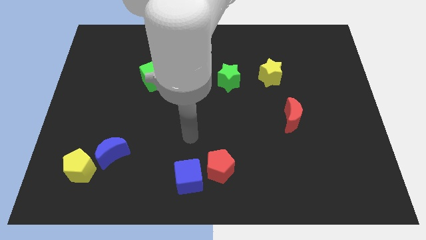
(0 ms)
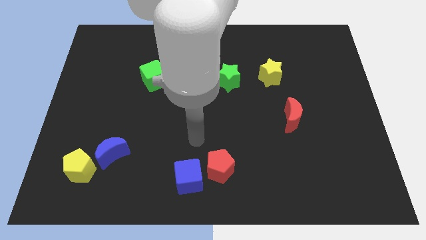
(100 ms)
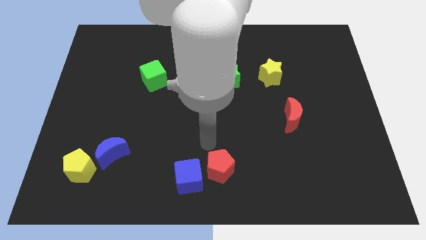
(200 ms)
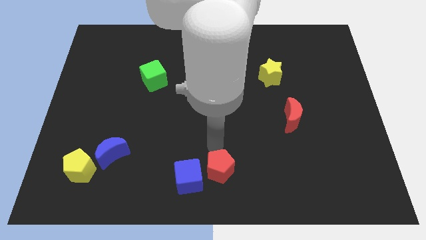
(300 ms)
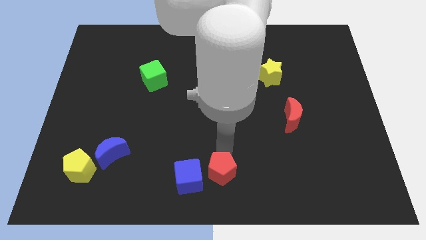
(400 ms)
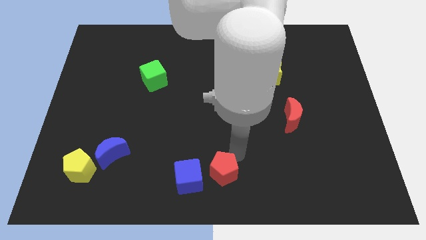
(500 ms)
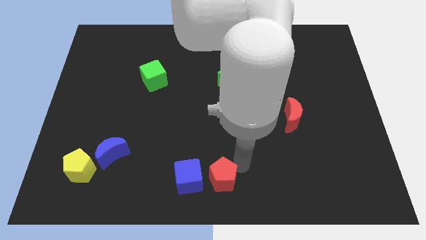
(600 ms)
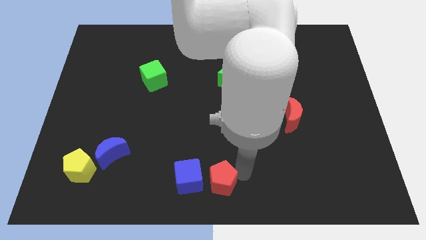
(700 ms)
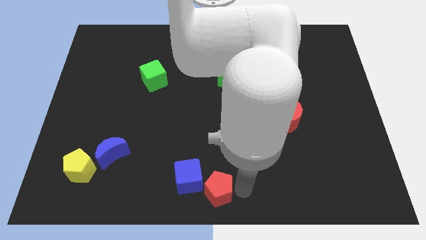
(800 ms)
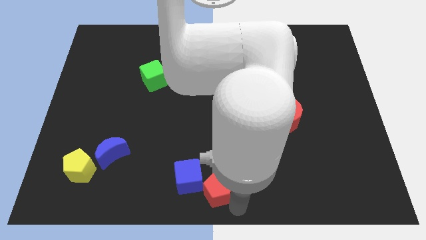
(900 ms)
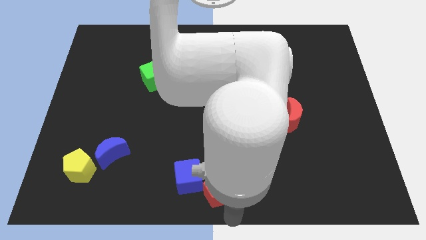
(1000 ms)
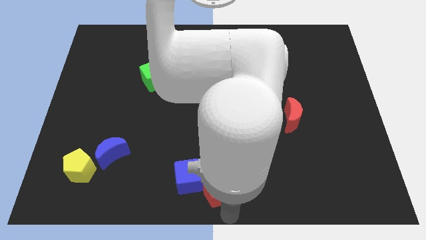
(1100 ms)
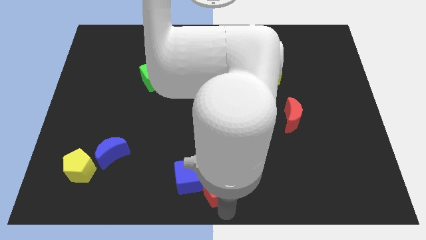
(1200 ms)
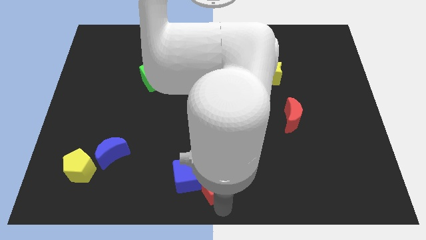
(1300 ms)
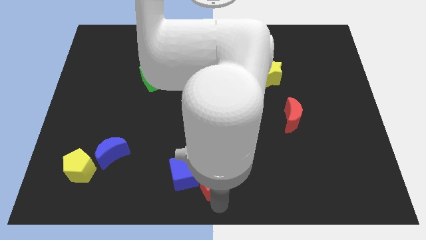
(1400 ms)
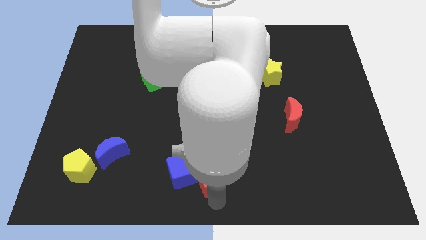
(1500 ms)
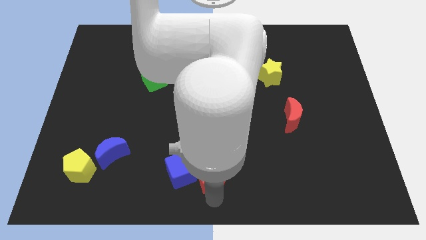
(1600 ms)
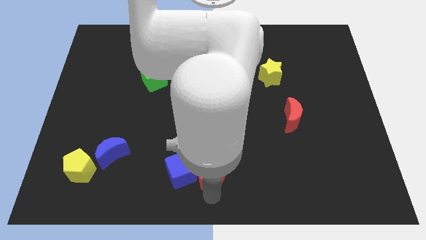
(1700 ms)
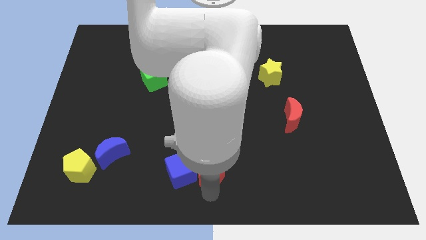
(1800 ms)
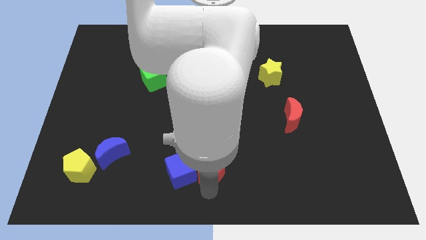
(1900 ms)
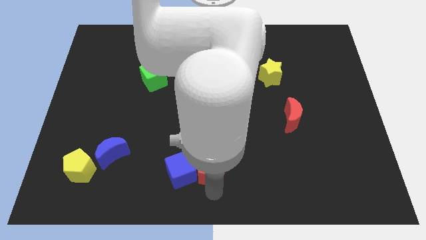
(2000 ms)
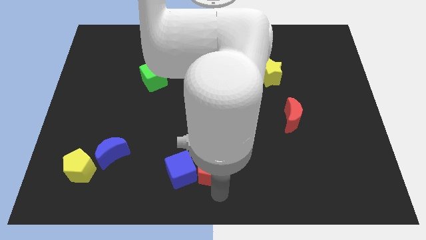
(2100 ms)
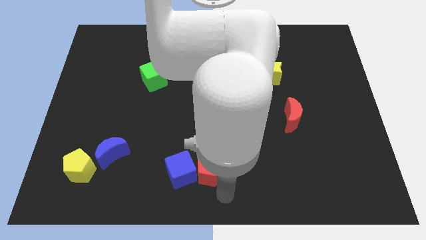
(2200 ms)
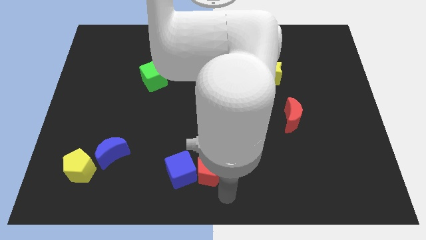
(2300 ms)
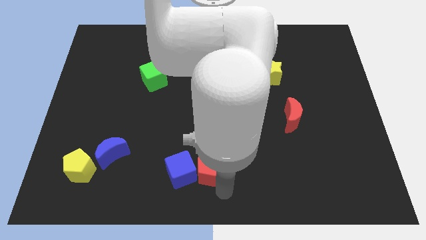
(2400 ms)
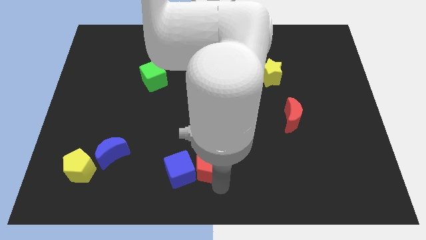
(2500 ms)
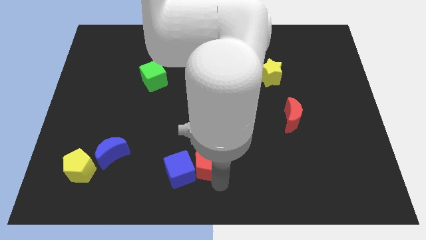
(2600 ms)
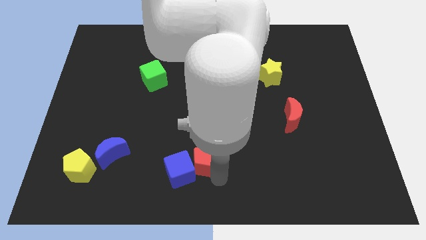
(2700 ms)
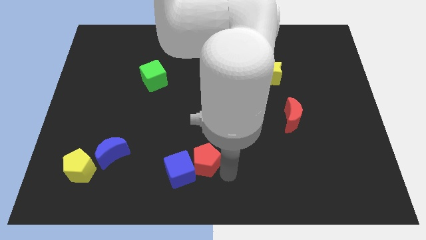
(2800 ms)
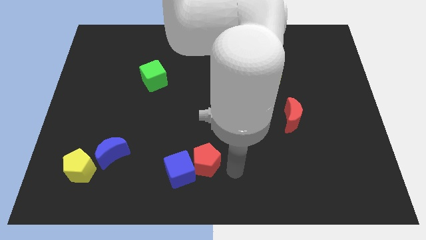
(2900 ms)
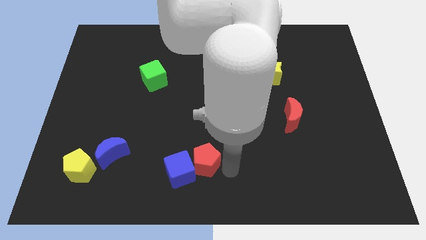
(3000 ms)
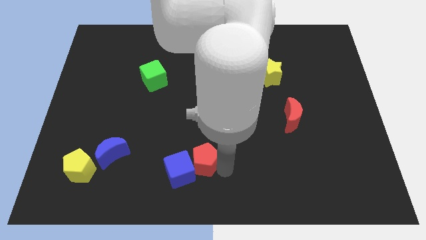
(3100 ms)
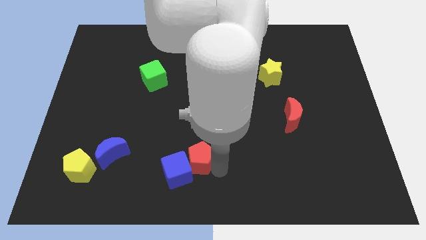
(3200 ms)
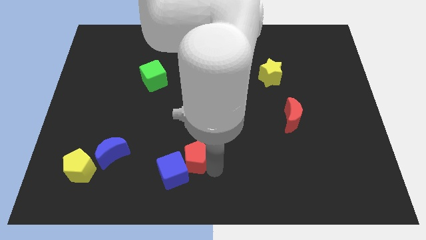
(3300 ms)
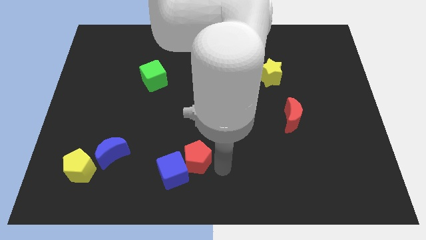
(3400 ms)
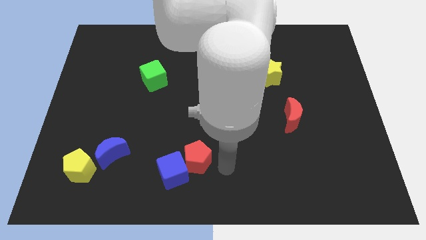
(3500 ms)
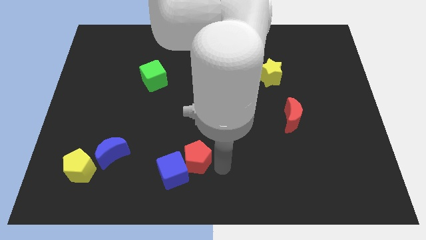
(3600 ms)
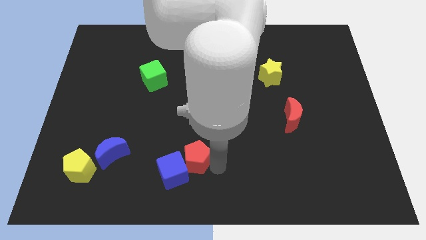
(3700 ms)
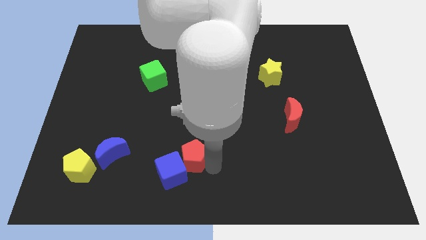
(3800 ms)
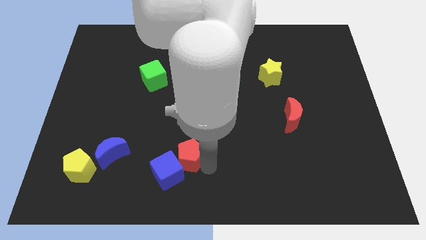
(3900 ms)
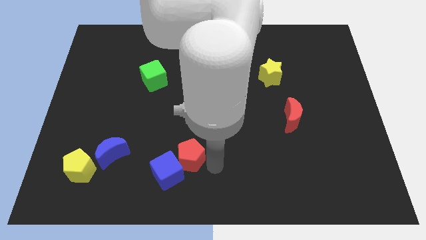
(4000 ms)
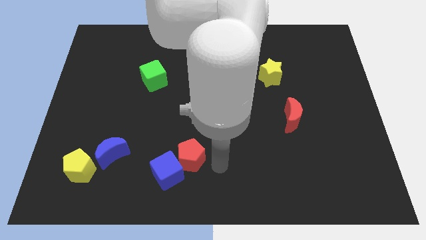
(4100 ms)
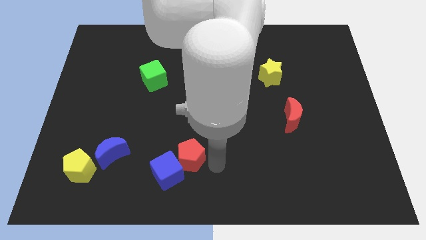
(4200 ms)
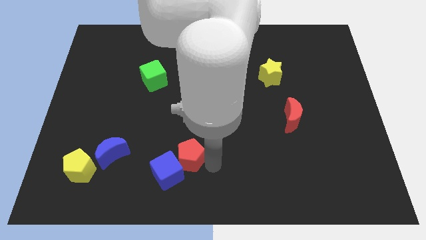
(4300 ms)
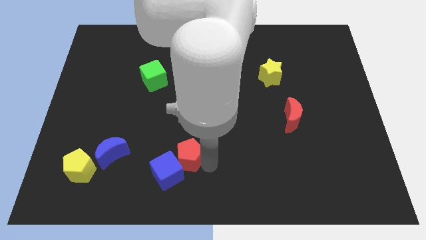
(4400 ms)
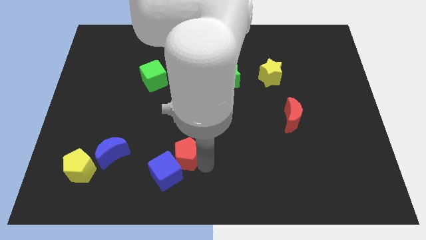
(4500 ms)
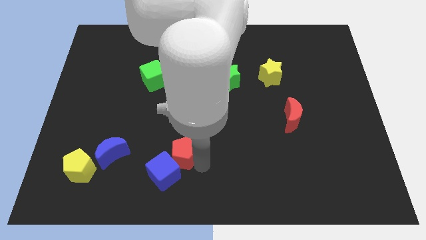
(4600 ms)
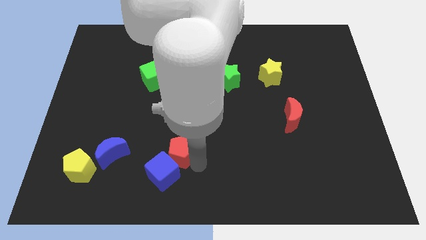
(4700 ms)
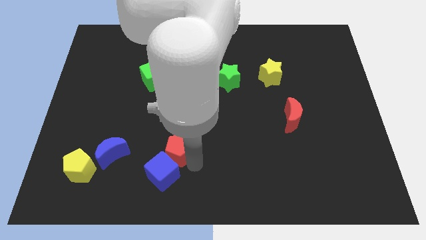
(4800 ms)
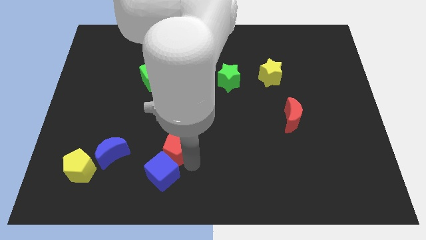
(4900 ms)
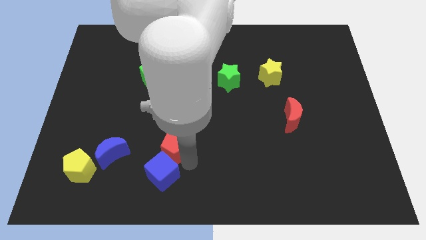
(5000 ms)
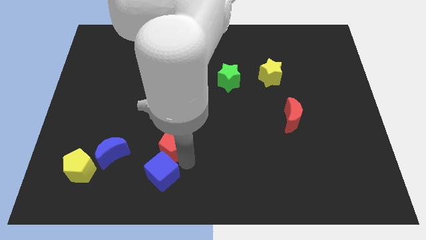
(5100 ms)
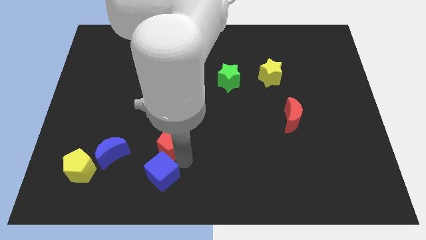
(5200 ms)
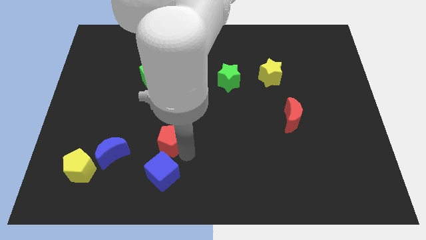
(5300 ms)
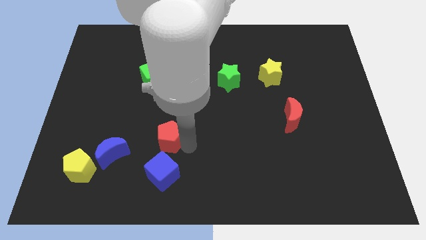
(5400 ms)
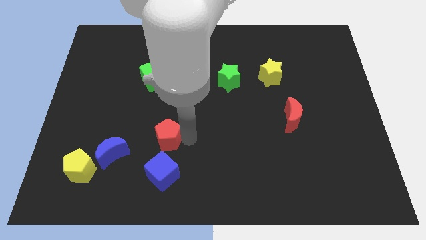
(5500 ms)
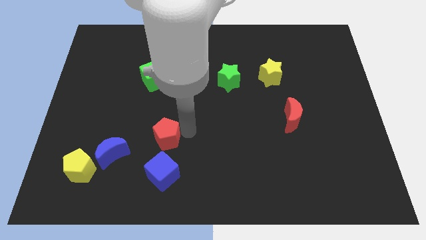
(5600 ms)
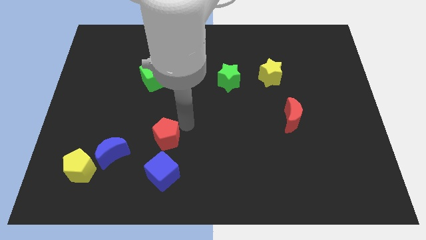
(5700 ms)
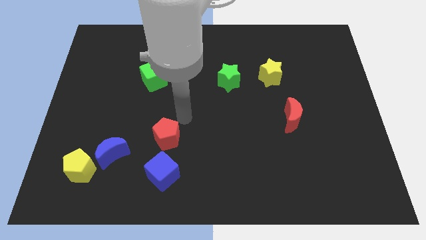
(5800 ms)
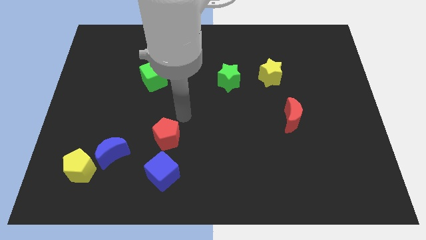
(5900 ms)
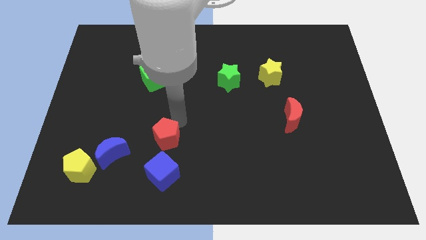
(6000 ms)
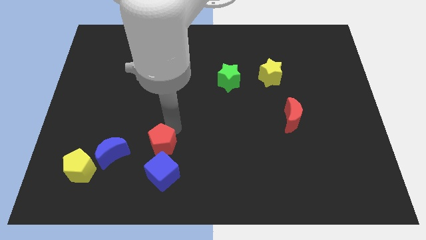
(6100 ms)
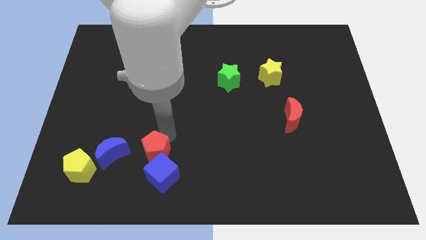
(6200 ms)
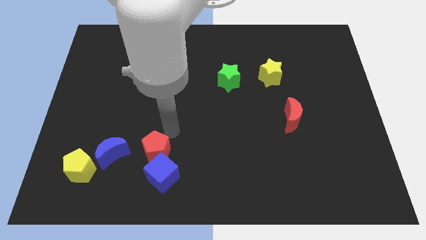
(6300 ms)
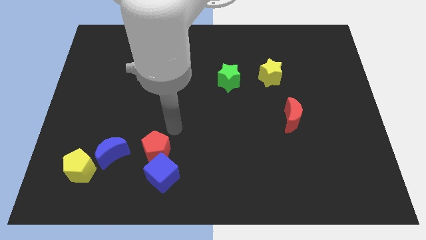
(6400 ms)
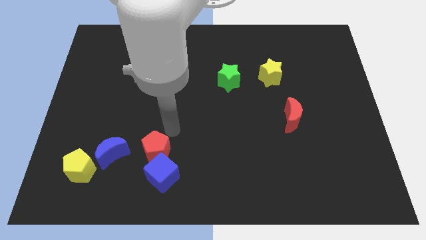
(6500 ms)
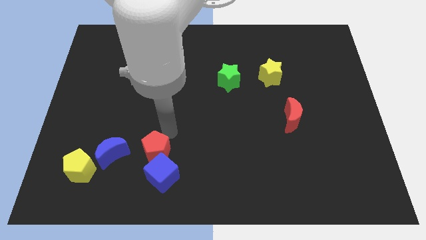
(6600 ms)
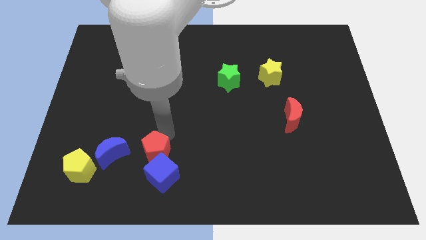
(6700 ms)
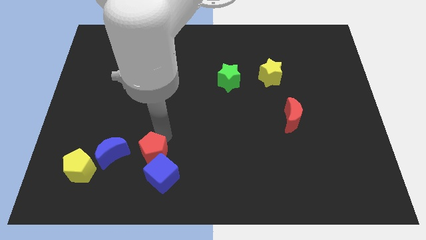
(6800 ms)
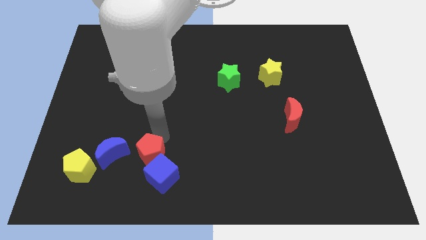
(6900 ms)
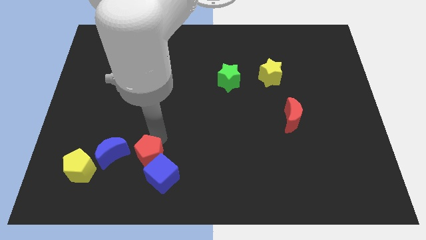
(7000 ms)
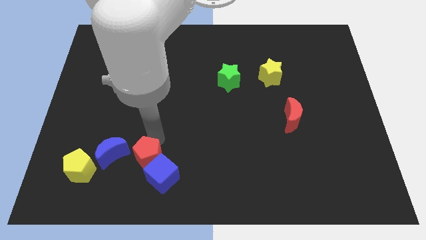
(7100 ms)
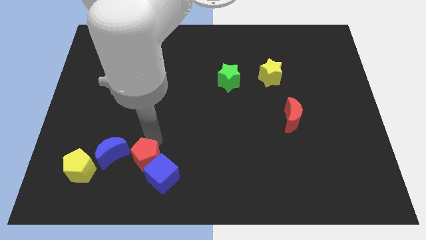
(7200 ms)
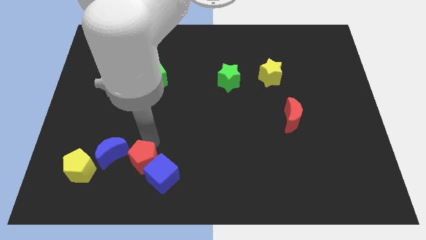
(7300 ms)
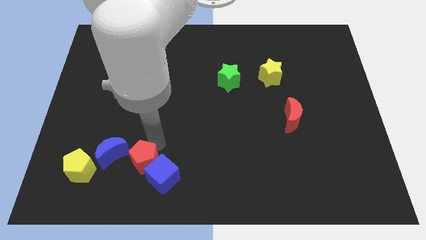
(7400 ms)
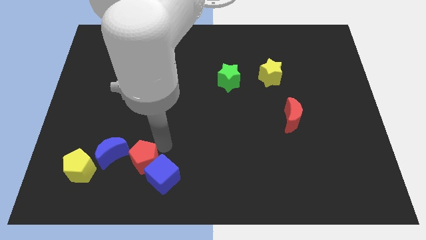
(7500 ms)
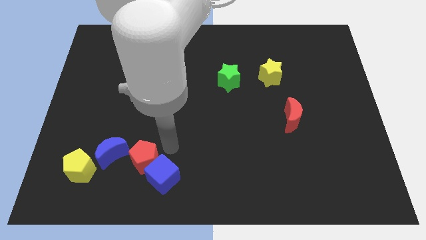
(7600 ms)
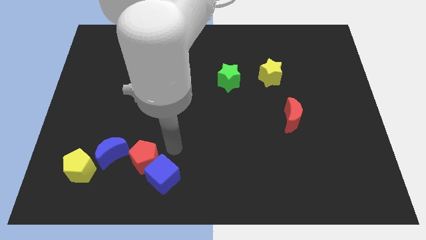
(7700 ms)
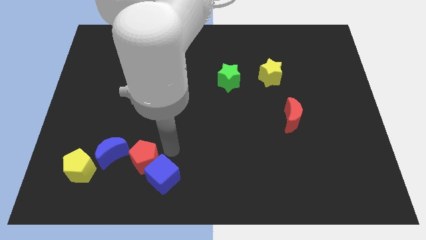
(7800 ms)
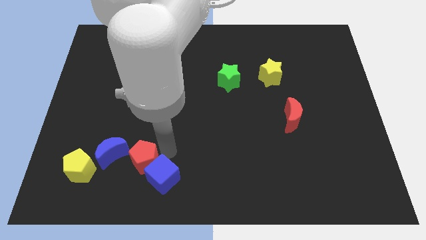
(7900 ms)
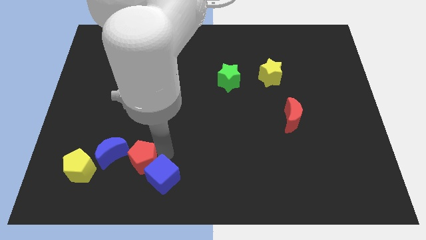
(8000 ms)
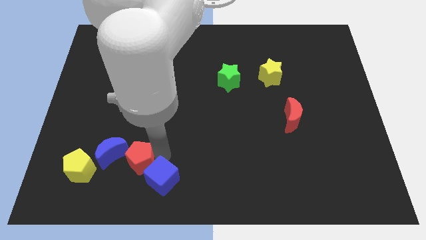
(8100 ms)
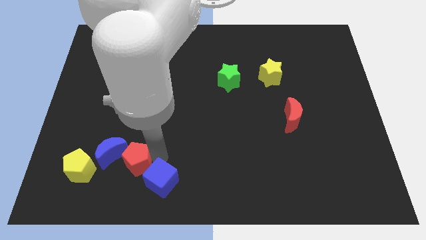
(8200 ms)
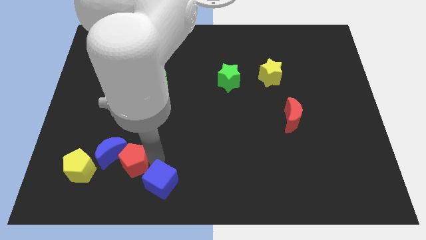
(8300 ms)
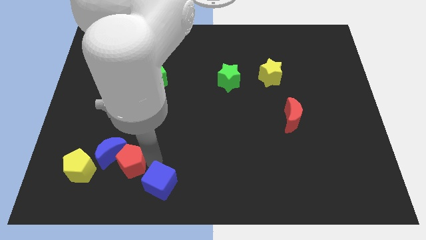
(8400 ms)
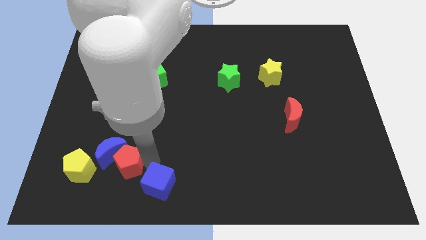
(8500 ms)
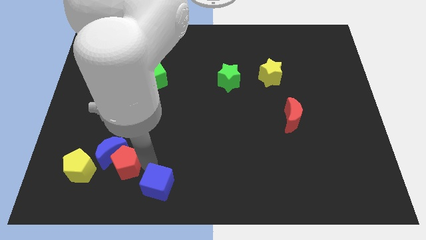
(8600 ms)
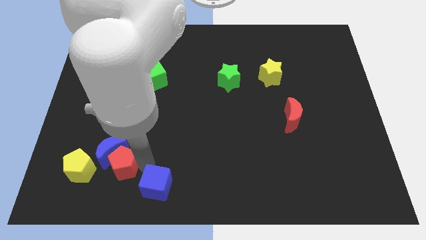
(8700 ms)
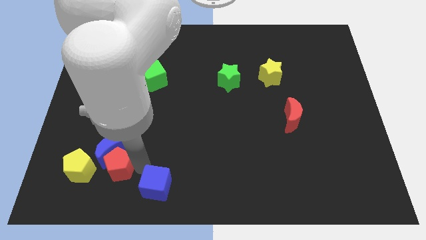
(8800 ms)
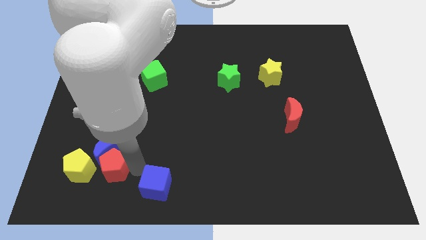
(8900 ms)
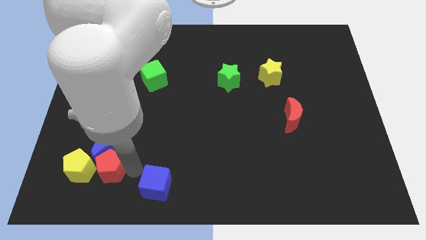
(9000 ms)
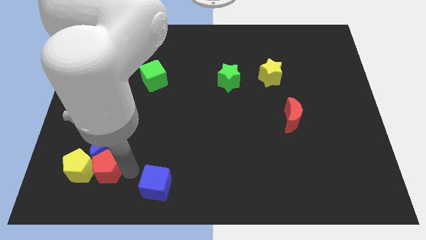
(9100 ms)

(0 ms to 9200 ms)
move the red pentagon close to the yellow pentagon
